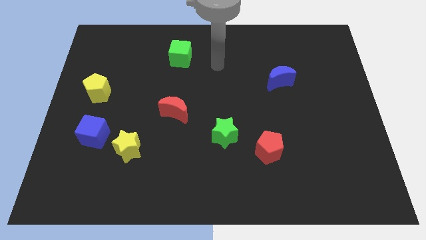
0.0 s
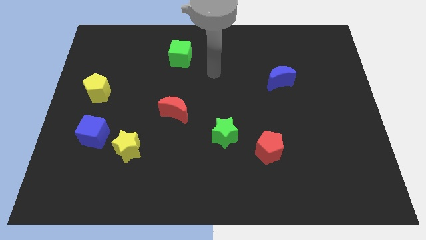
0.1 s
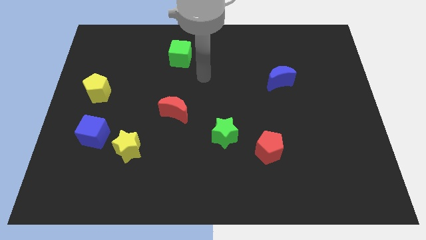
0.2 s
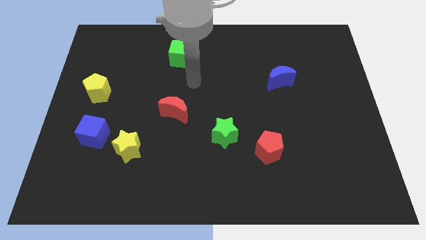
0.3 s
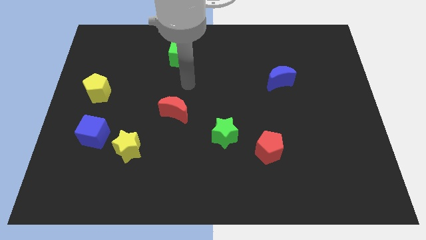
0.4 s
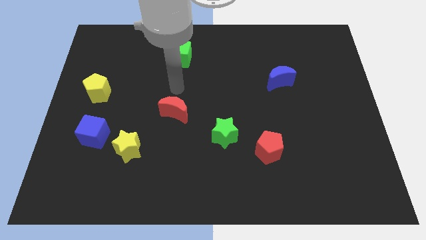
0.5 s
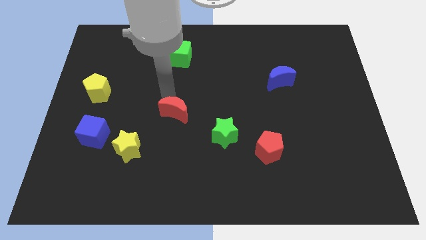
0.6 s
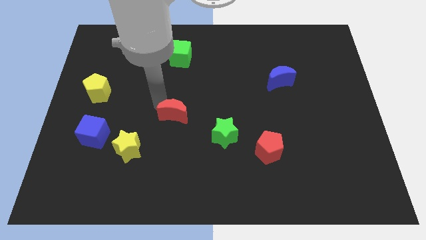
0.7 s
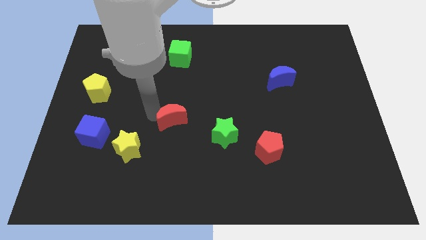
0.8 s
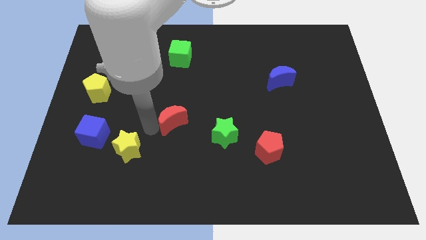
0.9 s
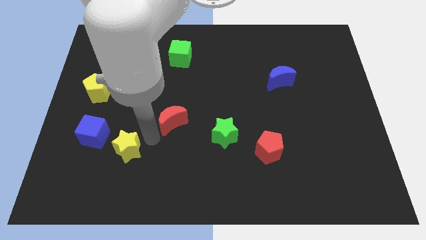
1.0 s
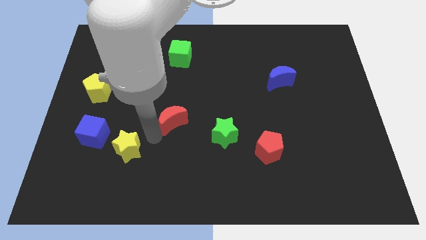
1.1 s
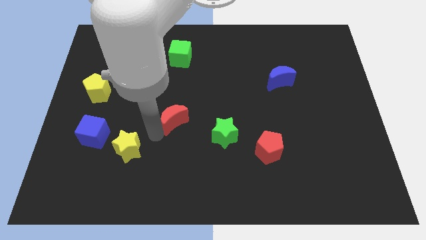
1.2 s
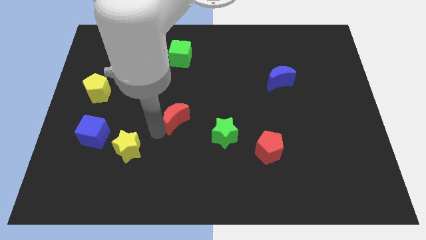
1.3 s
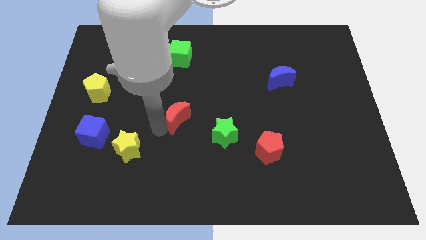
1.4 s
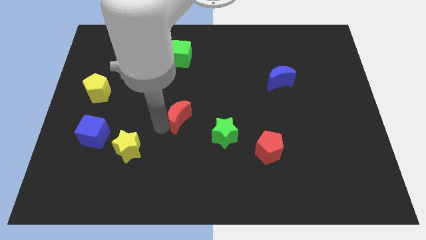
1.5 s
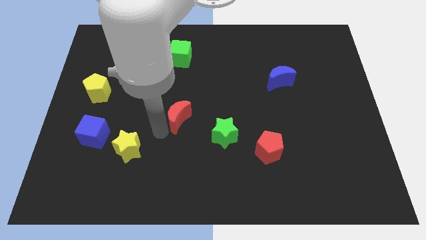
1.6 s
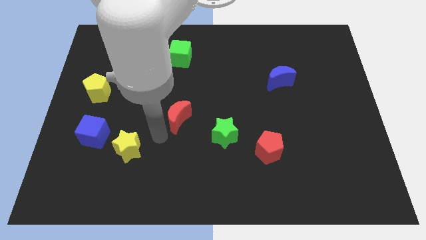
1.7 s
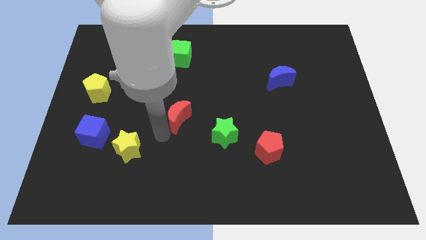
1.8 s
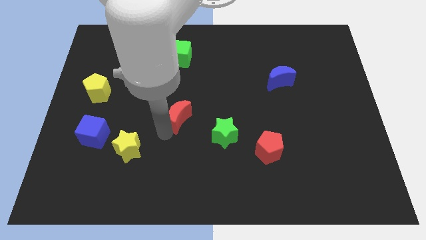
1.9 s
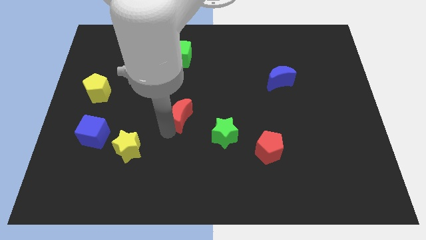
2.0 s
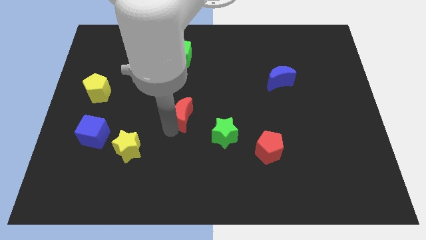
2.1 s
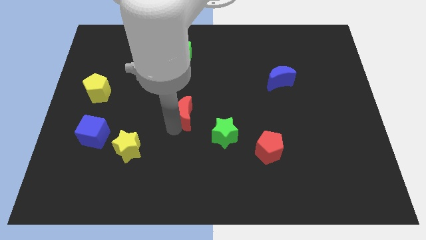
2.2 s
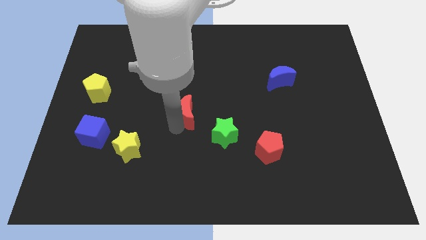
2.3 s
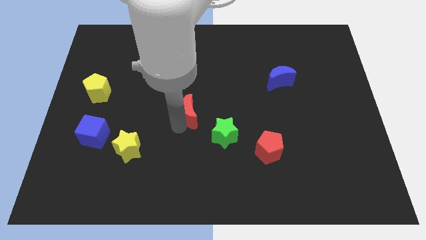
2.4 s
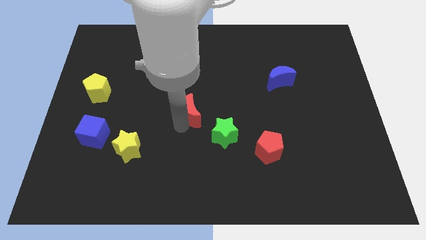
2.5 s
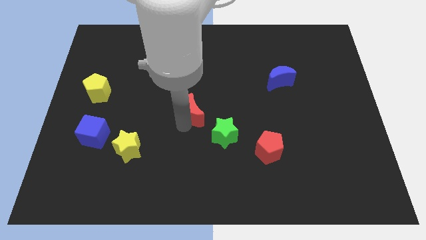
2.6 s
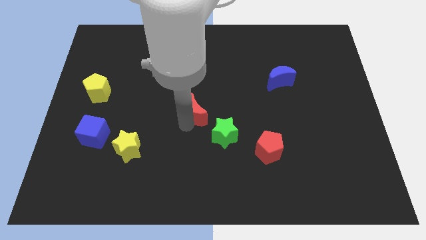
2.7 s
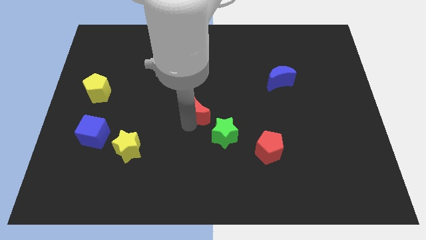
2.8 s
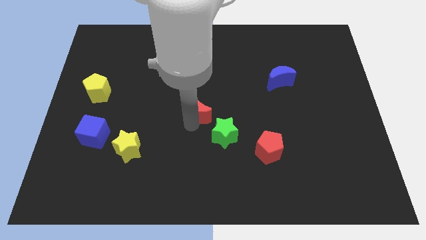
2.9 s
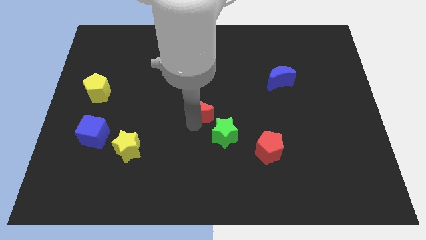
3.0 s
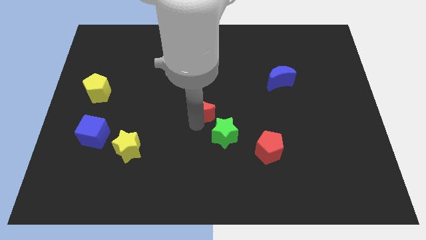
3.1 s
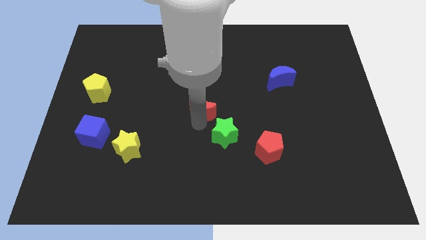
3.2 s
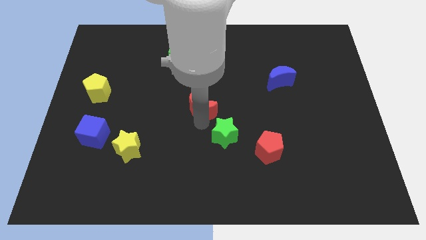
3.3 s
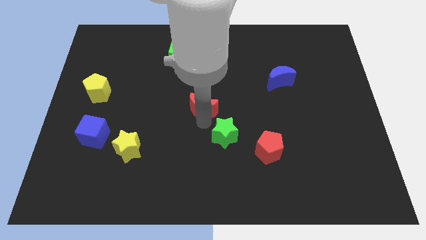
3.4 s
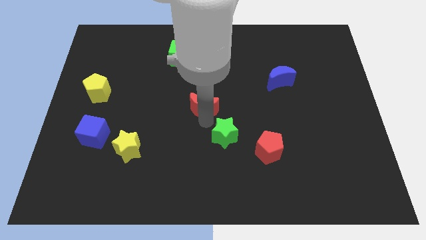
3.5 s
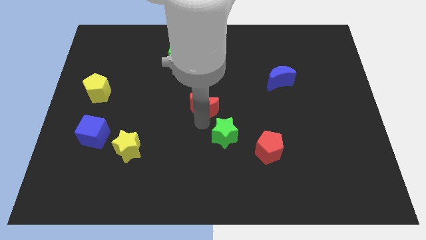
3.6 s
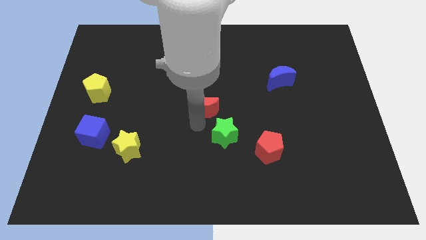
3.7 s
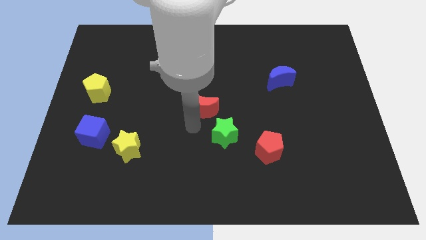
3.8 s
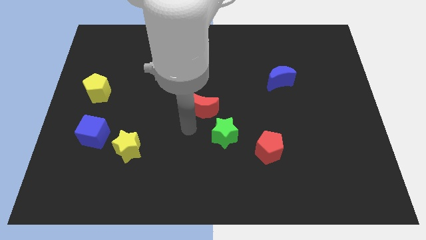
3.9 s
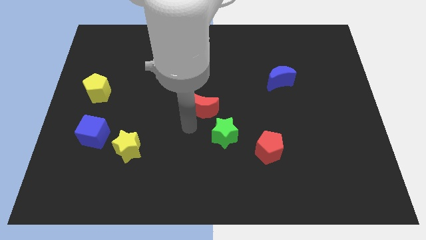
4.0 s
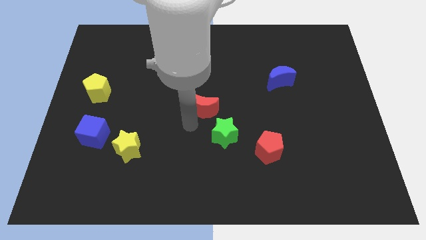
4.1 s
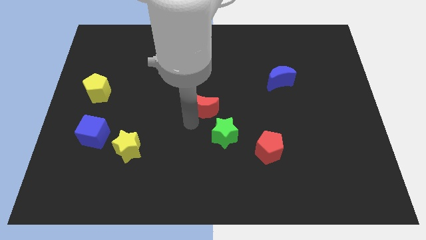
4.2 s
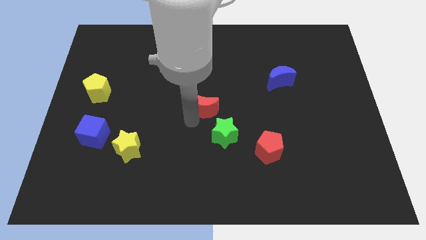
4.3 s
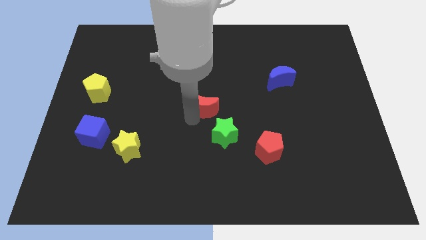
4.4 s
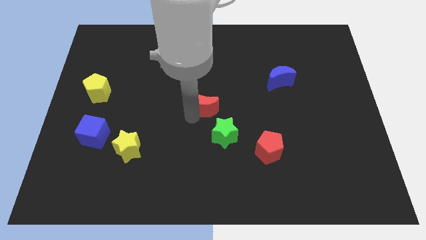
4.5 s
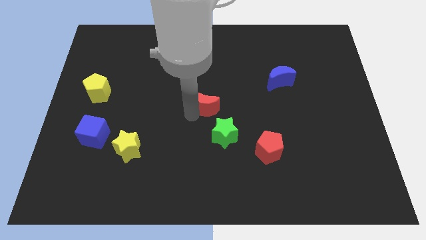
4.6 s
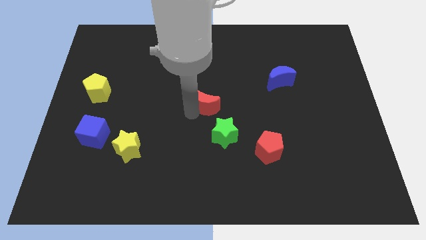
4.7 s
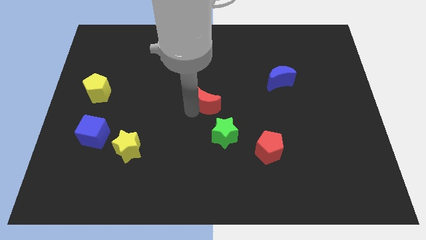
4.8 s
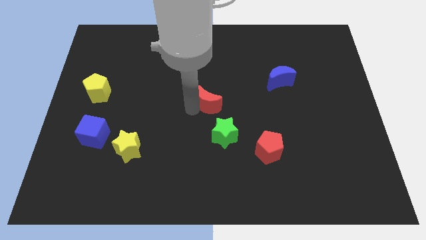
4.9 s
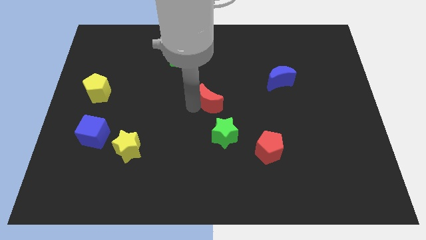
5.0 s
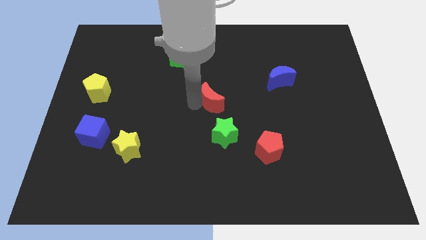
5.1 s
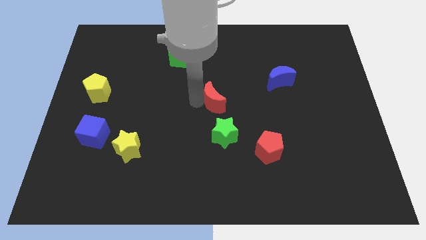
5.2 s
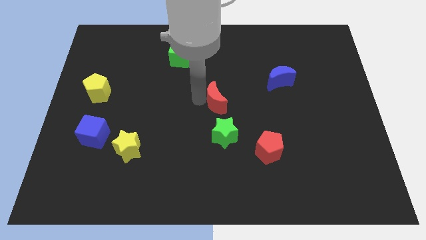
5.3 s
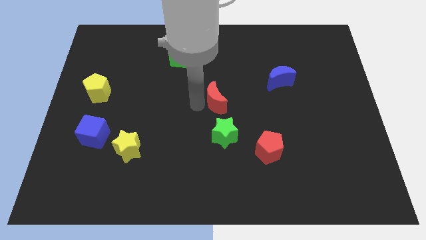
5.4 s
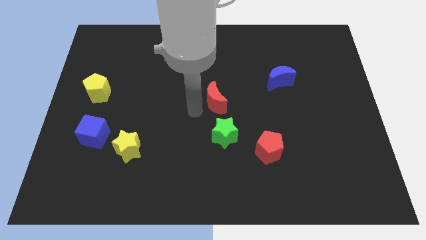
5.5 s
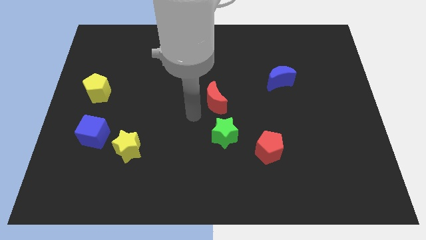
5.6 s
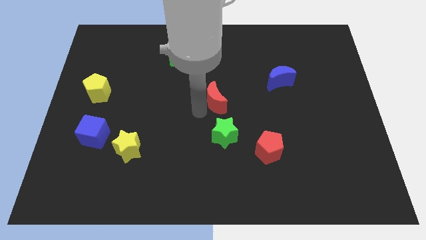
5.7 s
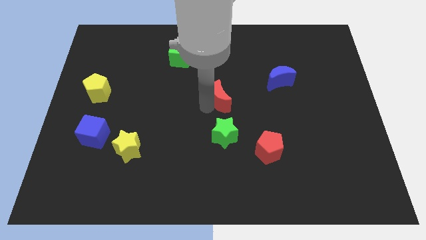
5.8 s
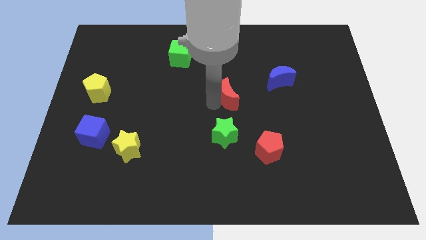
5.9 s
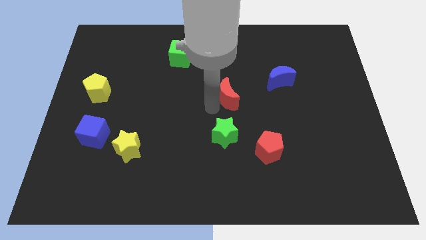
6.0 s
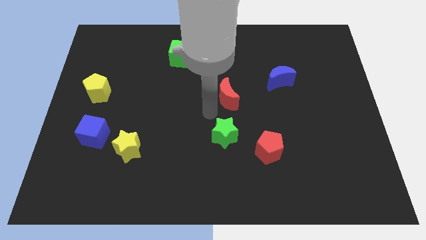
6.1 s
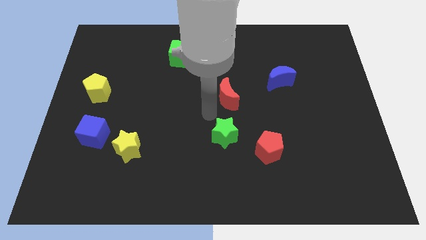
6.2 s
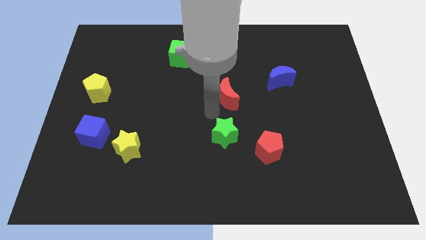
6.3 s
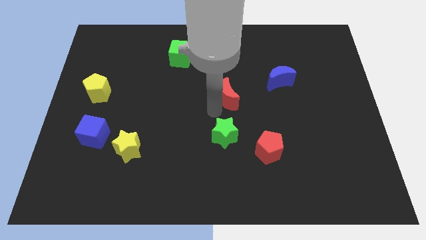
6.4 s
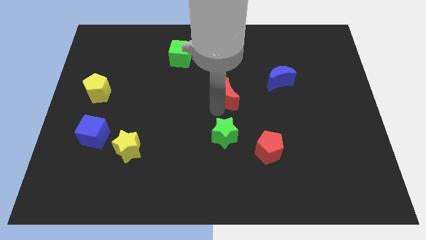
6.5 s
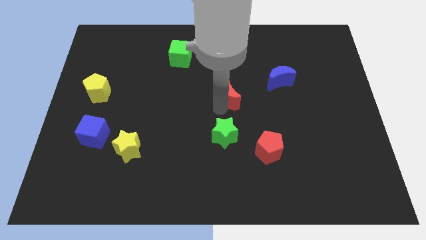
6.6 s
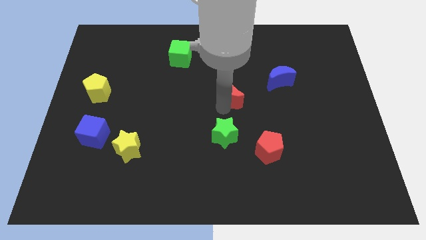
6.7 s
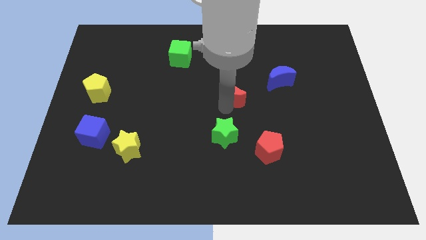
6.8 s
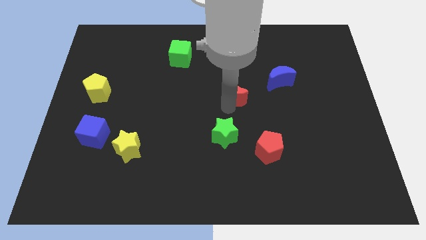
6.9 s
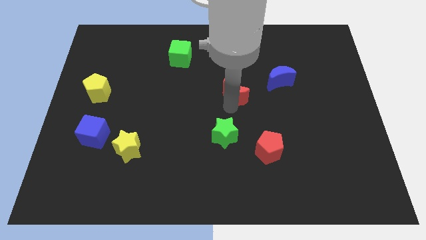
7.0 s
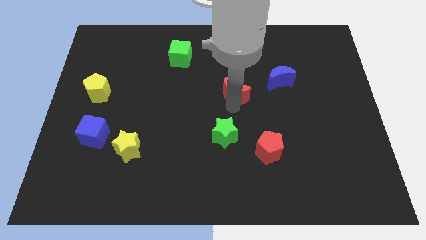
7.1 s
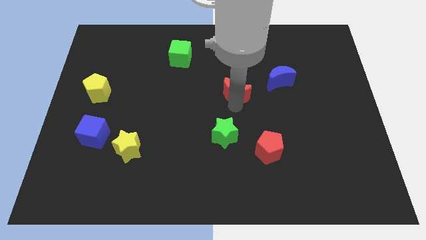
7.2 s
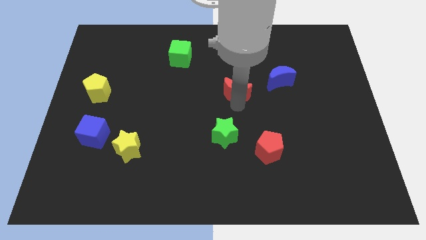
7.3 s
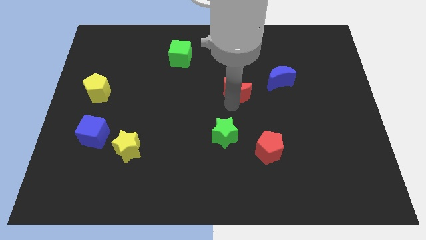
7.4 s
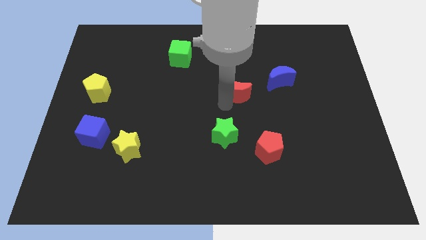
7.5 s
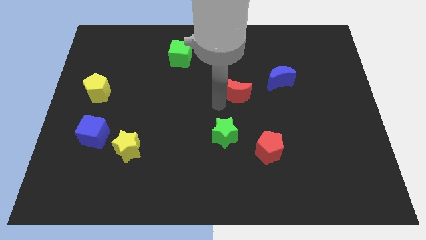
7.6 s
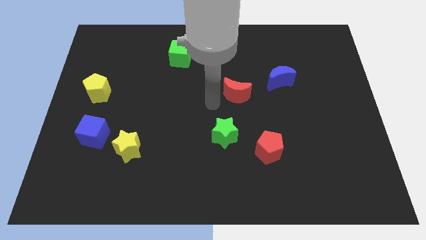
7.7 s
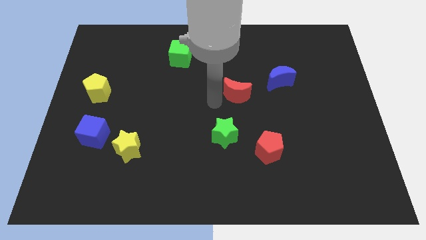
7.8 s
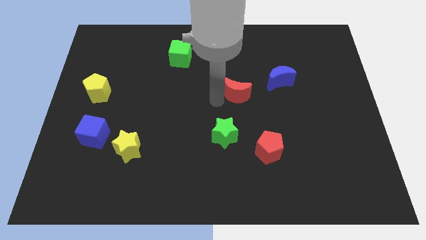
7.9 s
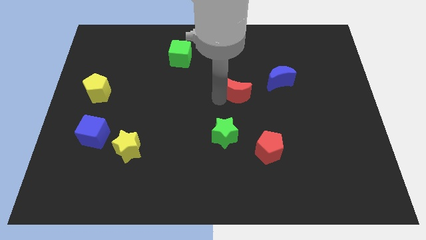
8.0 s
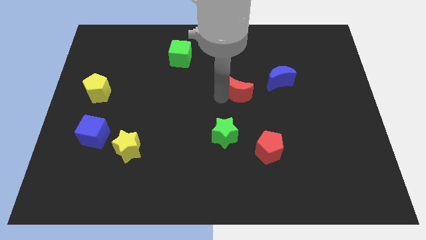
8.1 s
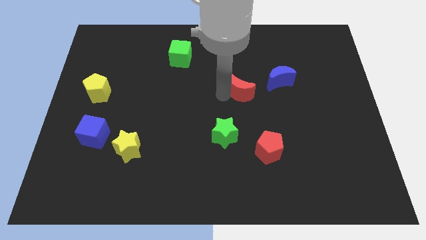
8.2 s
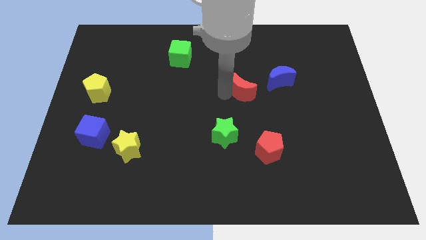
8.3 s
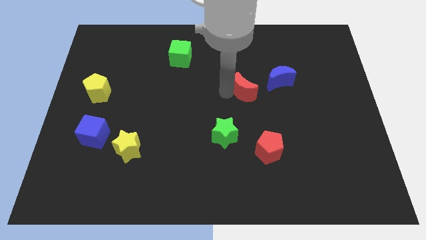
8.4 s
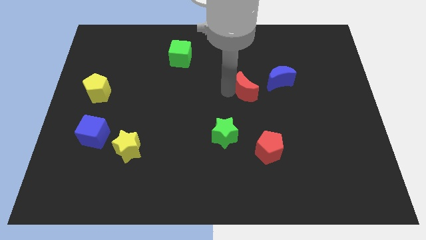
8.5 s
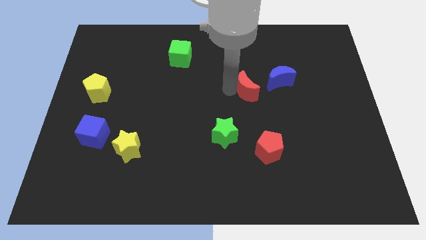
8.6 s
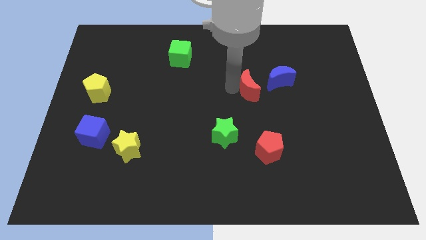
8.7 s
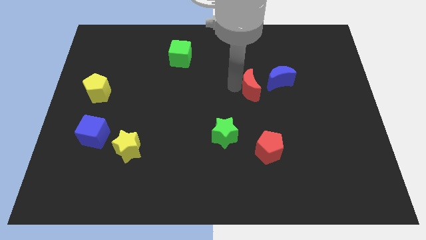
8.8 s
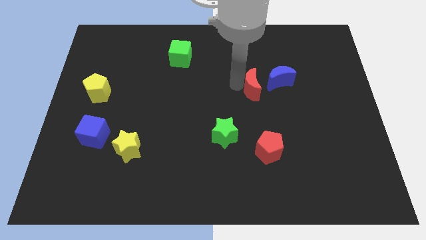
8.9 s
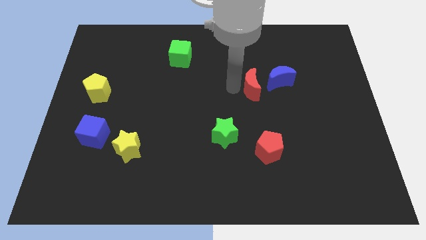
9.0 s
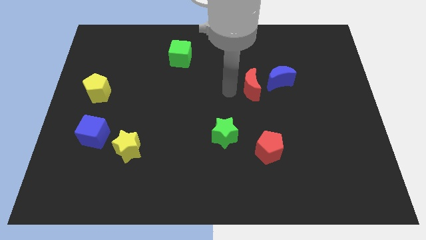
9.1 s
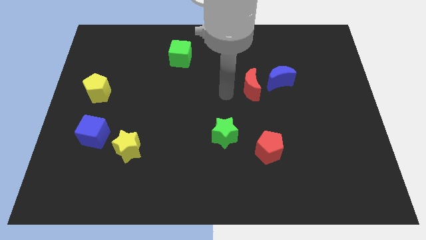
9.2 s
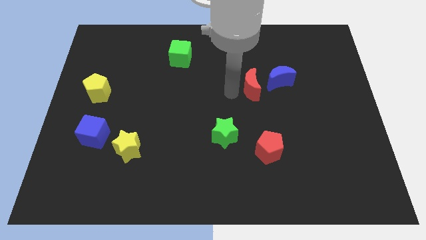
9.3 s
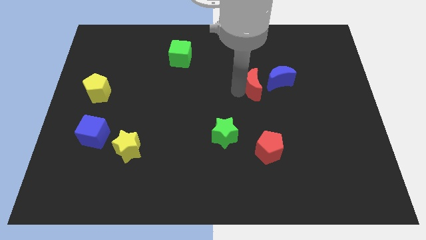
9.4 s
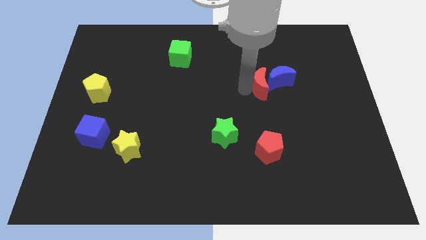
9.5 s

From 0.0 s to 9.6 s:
push the red moon to the blue moon
